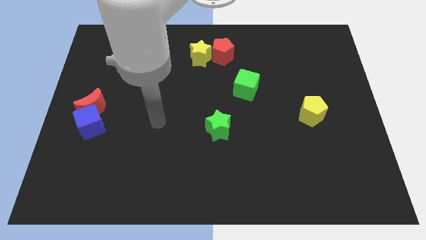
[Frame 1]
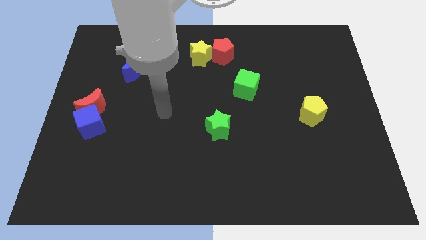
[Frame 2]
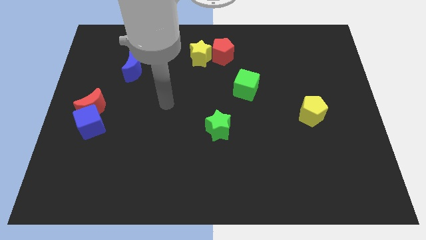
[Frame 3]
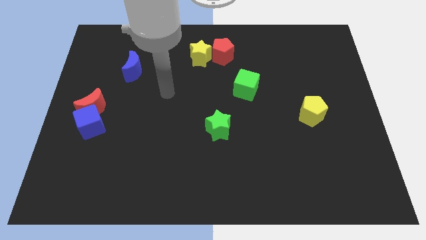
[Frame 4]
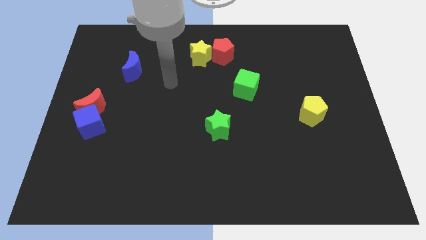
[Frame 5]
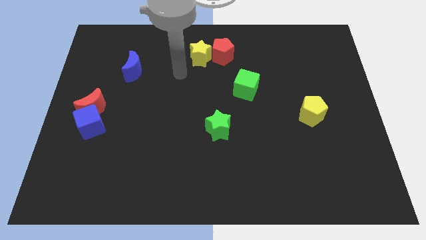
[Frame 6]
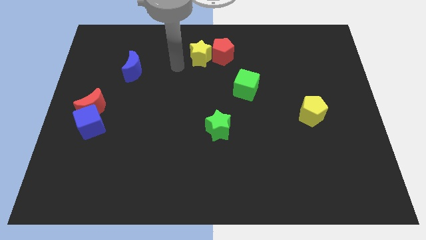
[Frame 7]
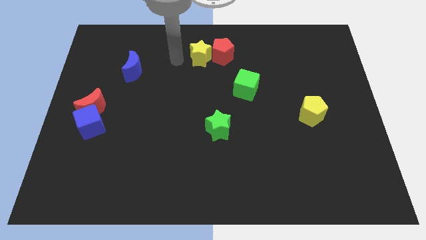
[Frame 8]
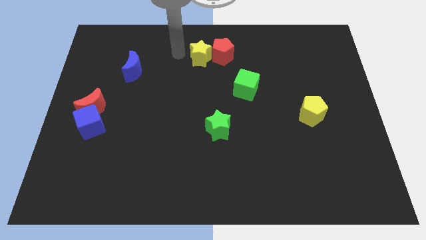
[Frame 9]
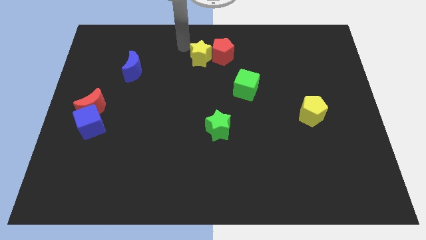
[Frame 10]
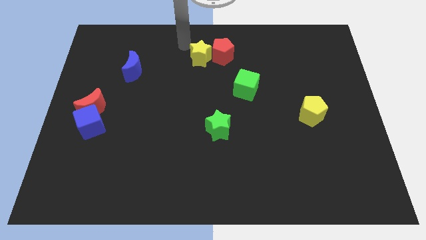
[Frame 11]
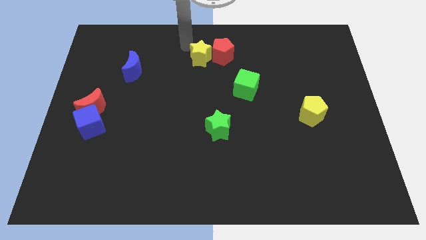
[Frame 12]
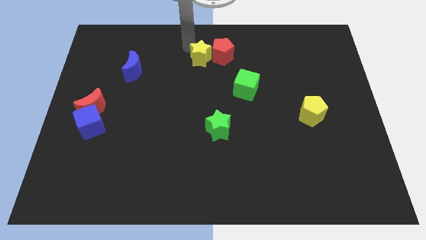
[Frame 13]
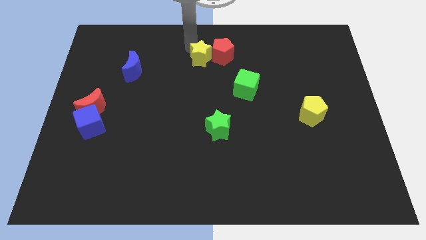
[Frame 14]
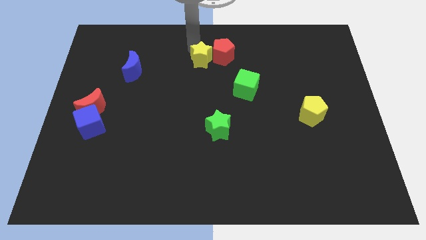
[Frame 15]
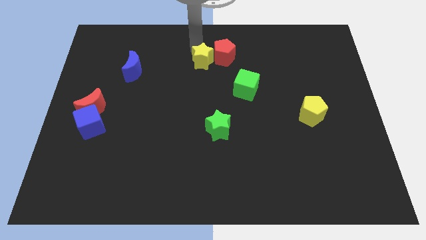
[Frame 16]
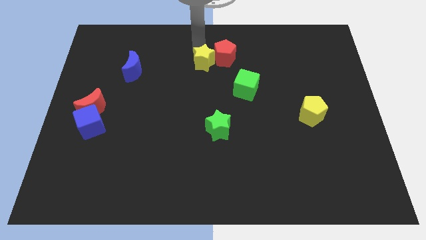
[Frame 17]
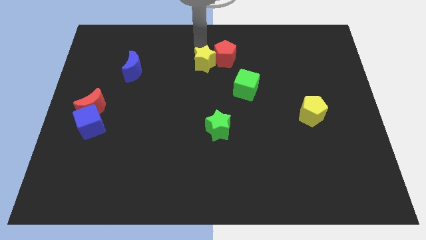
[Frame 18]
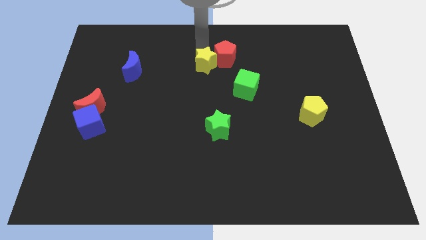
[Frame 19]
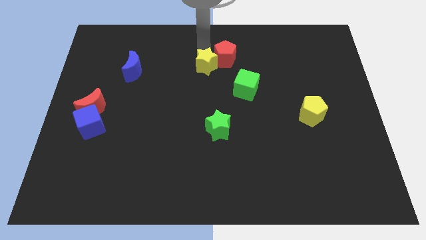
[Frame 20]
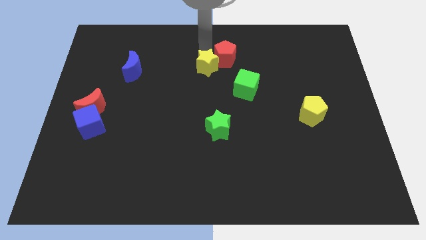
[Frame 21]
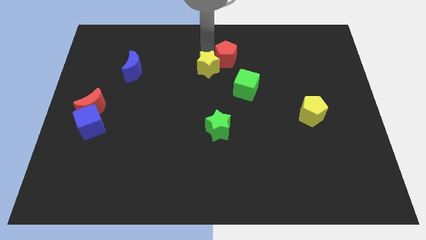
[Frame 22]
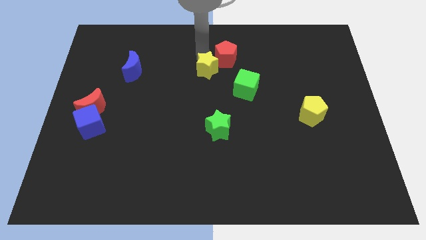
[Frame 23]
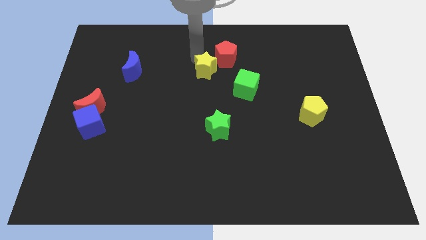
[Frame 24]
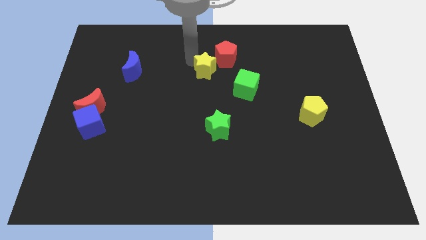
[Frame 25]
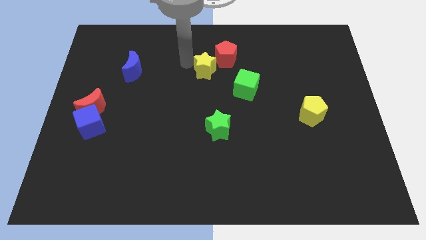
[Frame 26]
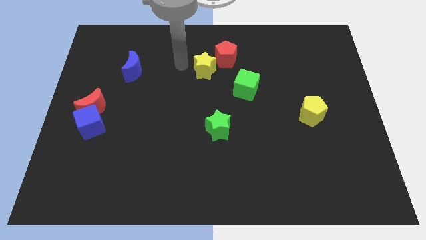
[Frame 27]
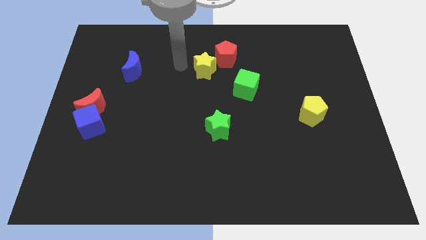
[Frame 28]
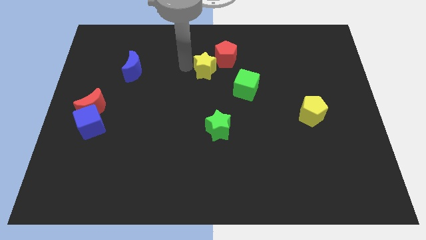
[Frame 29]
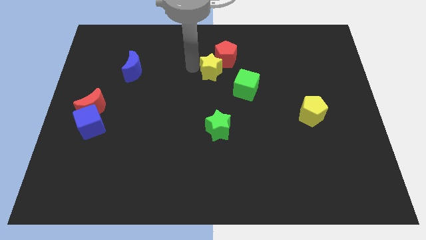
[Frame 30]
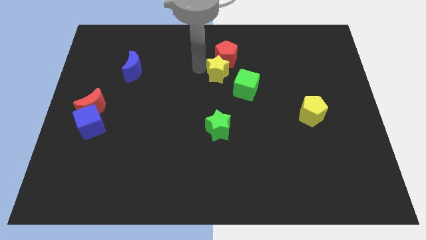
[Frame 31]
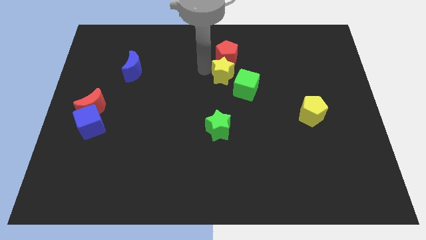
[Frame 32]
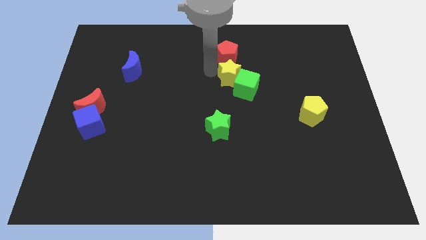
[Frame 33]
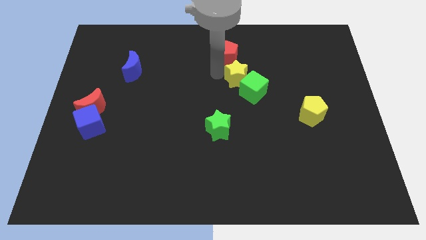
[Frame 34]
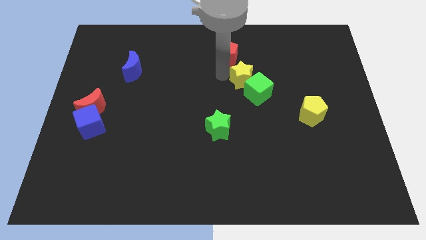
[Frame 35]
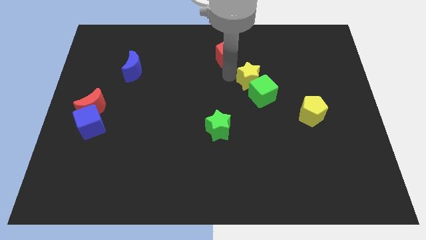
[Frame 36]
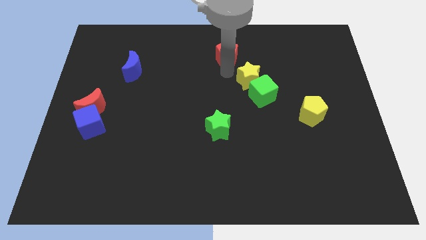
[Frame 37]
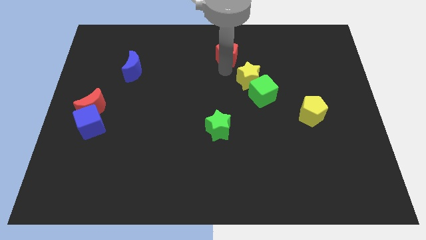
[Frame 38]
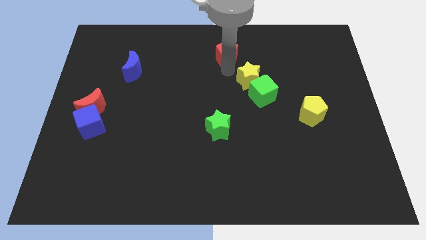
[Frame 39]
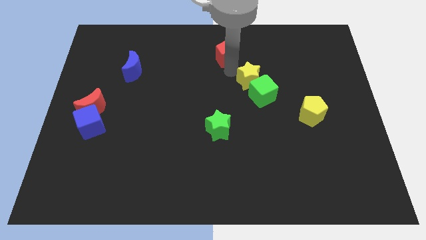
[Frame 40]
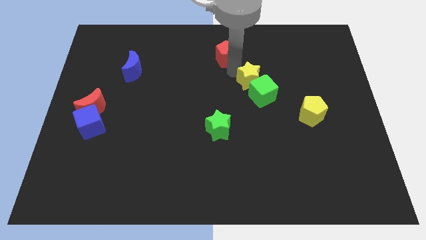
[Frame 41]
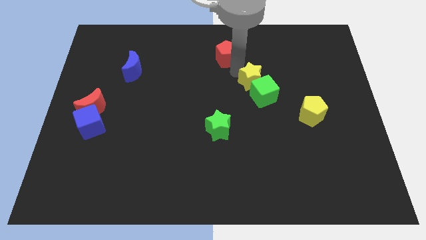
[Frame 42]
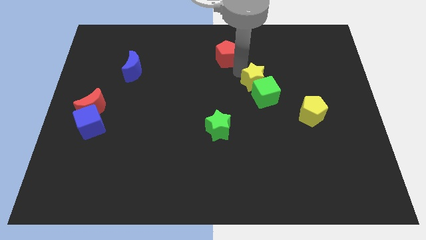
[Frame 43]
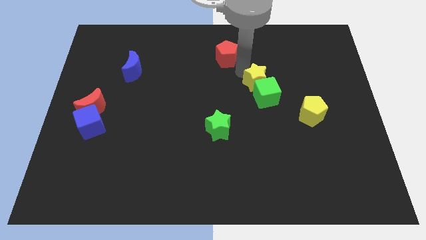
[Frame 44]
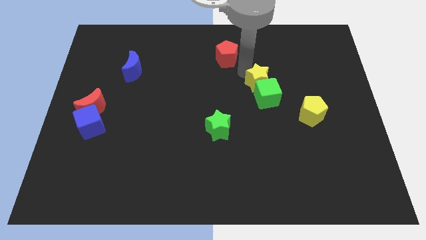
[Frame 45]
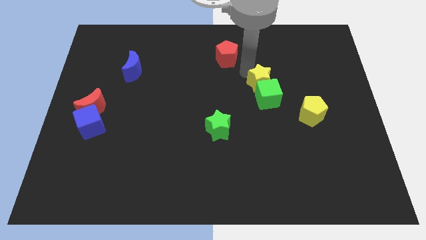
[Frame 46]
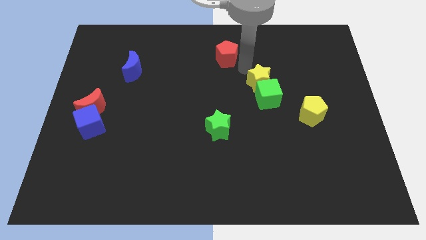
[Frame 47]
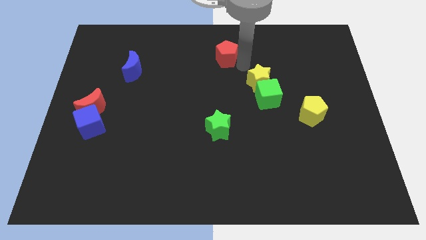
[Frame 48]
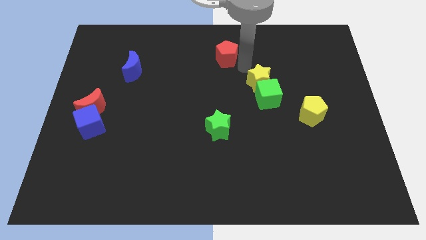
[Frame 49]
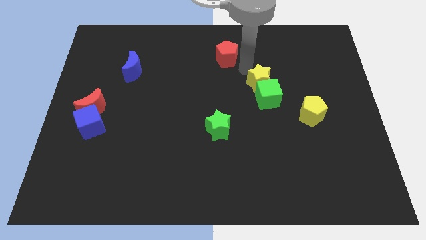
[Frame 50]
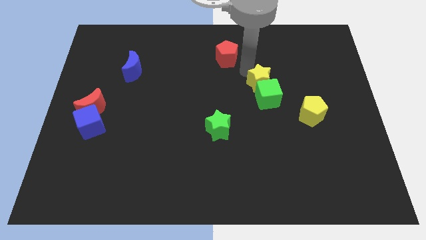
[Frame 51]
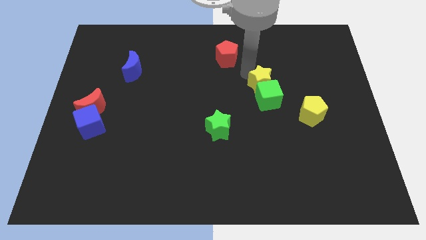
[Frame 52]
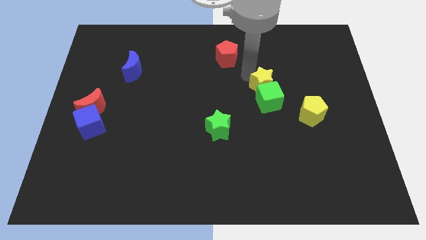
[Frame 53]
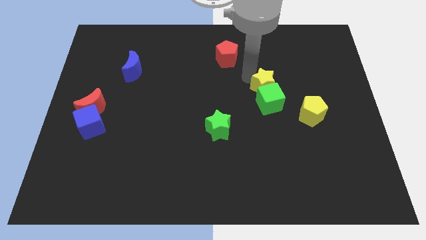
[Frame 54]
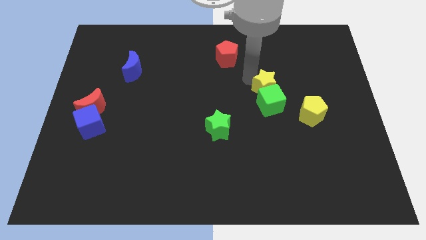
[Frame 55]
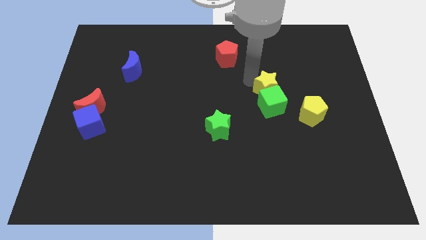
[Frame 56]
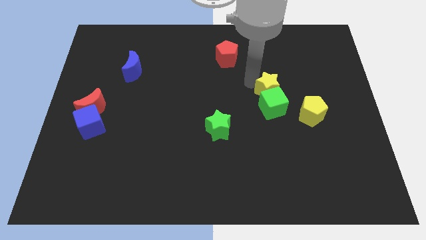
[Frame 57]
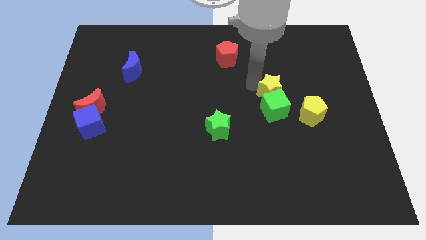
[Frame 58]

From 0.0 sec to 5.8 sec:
move the yellow star downwards and to the right diagonally

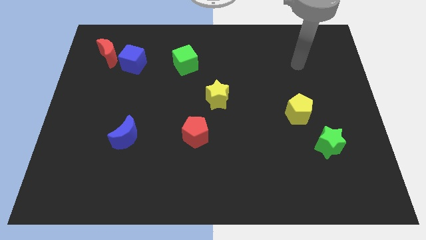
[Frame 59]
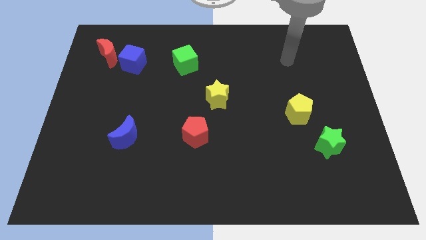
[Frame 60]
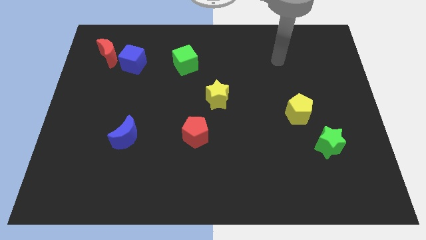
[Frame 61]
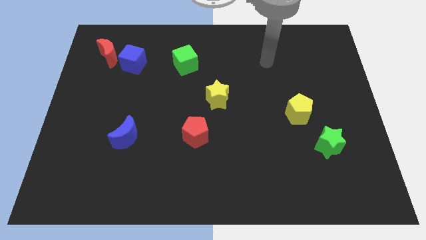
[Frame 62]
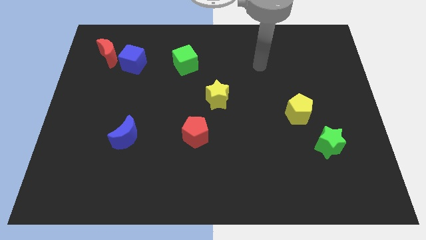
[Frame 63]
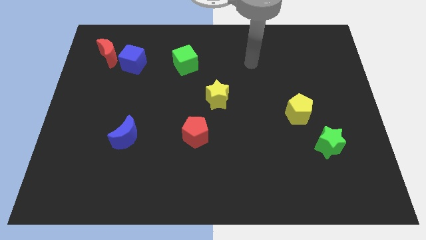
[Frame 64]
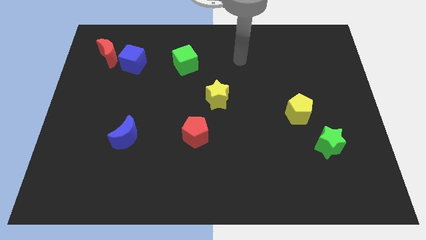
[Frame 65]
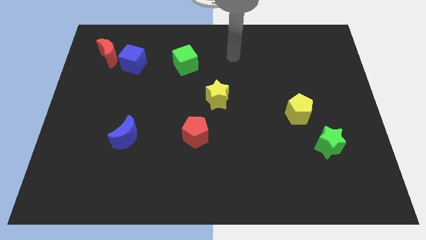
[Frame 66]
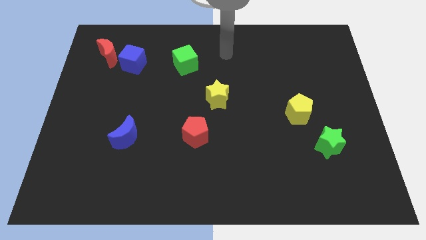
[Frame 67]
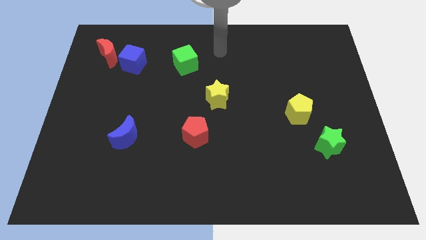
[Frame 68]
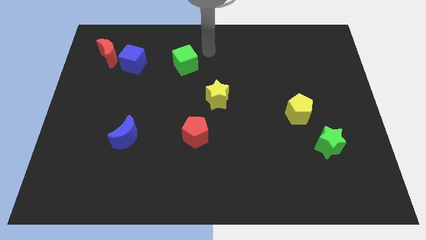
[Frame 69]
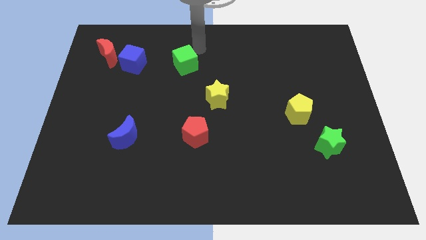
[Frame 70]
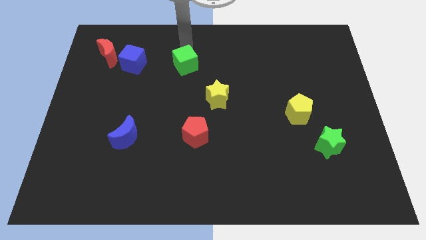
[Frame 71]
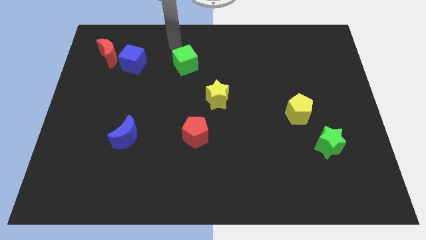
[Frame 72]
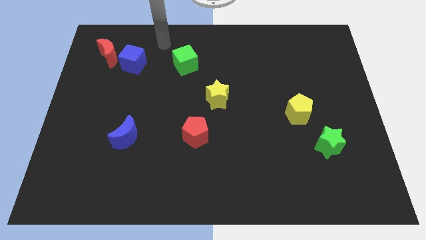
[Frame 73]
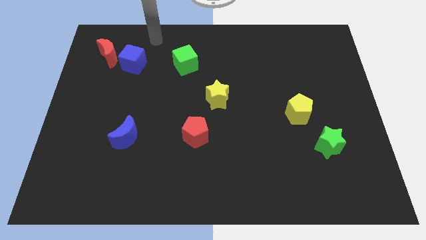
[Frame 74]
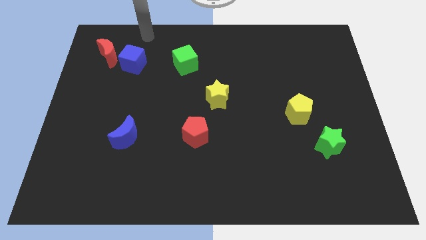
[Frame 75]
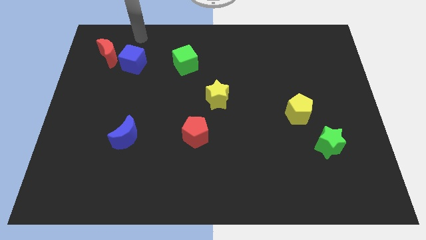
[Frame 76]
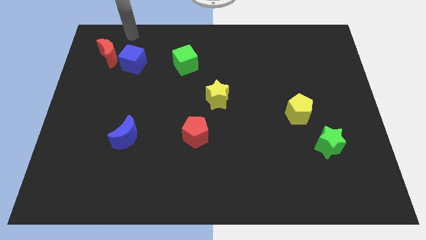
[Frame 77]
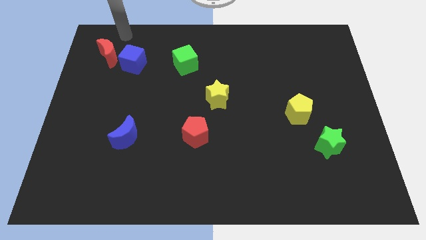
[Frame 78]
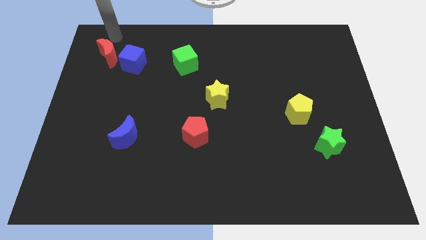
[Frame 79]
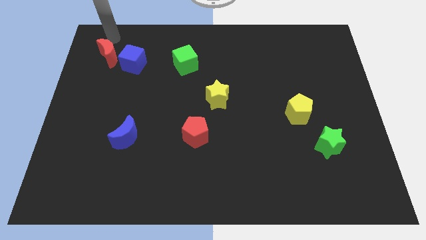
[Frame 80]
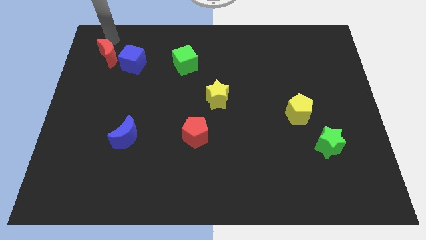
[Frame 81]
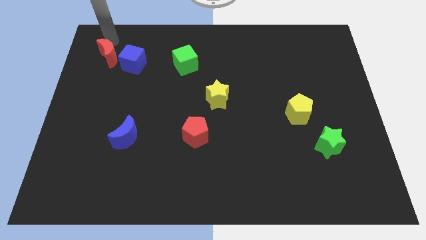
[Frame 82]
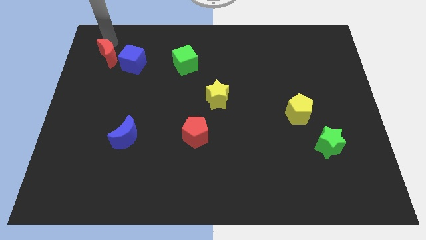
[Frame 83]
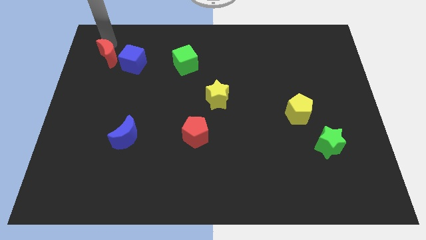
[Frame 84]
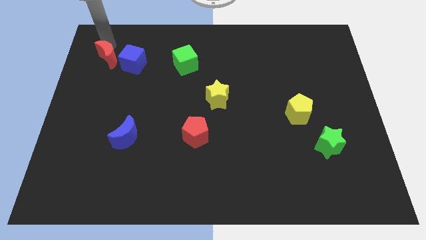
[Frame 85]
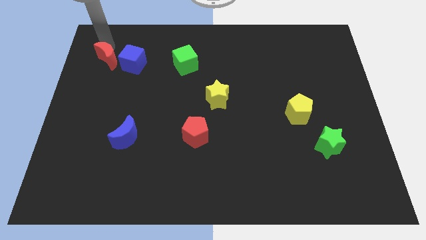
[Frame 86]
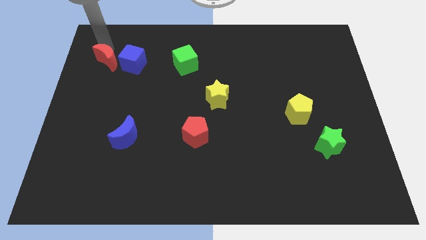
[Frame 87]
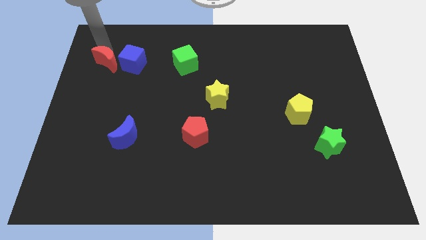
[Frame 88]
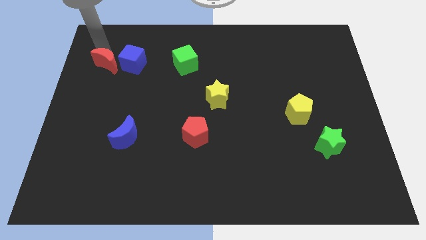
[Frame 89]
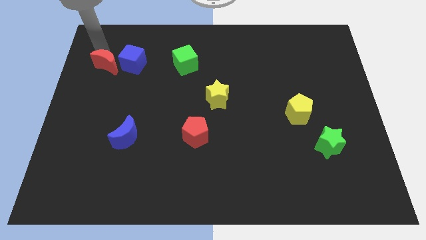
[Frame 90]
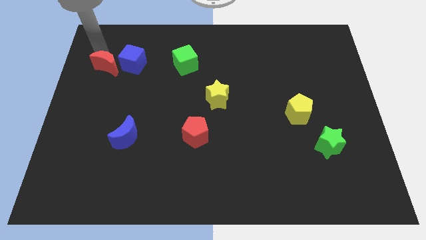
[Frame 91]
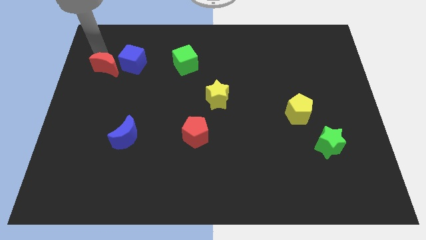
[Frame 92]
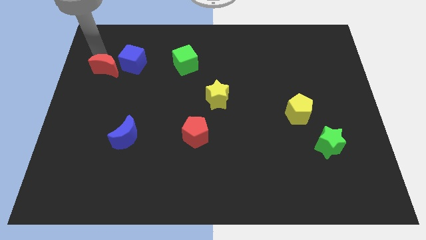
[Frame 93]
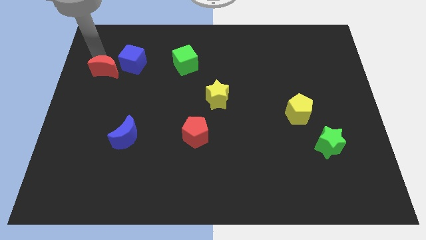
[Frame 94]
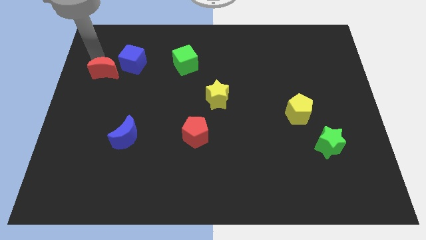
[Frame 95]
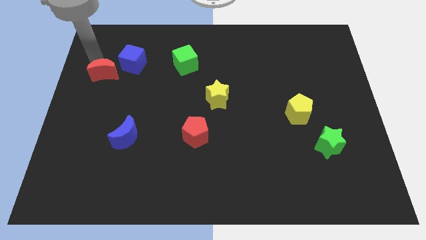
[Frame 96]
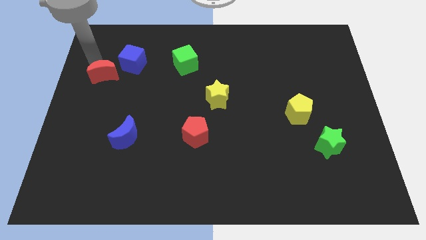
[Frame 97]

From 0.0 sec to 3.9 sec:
slightly slide the red moon downwards
